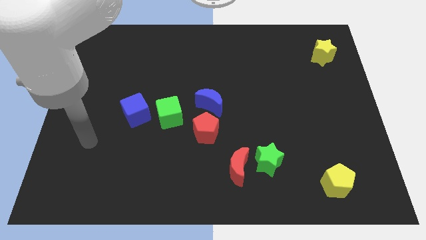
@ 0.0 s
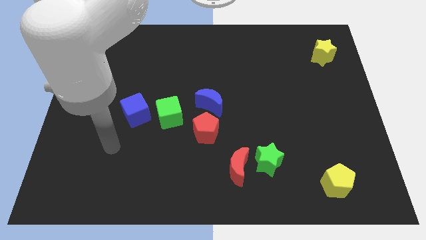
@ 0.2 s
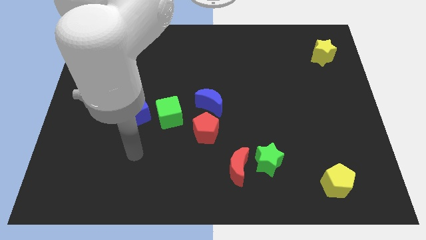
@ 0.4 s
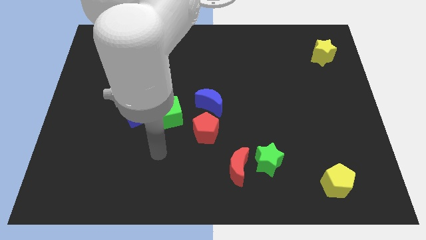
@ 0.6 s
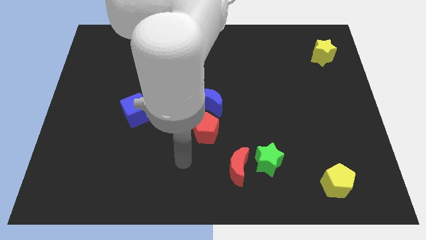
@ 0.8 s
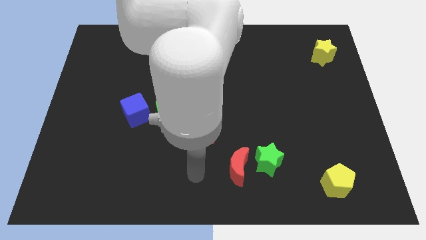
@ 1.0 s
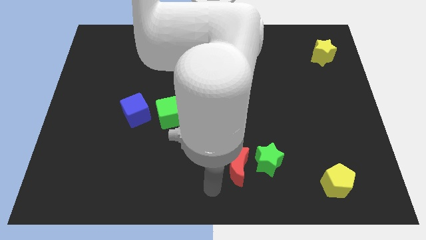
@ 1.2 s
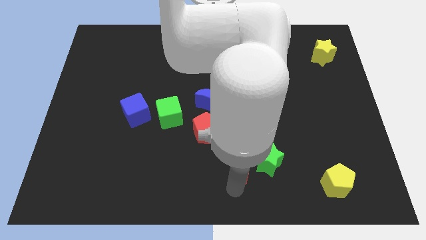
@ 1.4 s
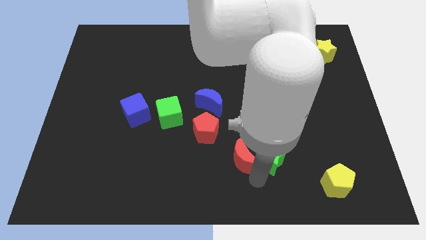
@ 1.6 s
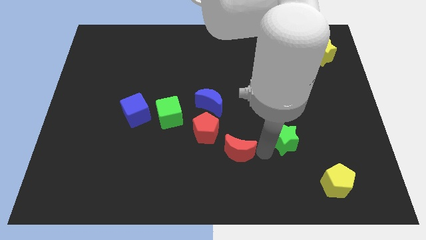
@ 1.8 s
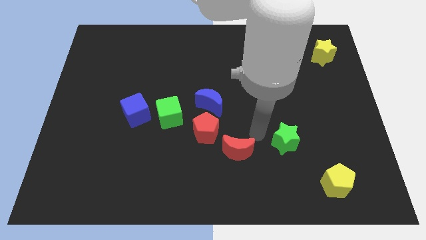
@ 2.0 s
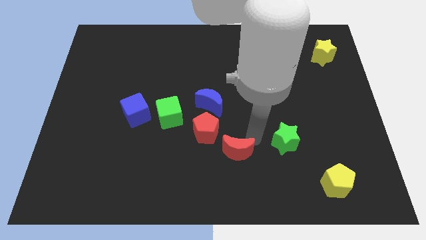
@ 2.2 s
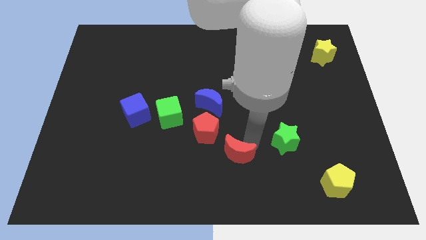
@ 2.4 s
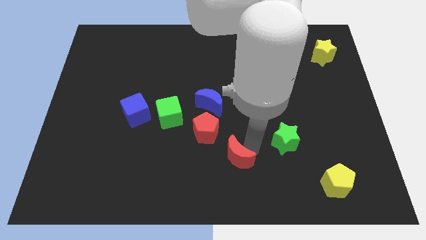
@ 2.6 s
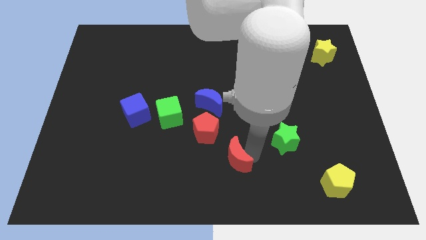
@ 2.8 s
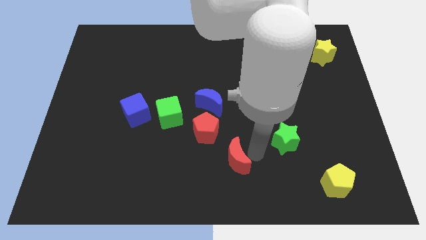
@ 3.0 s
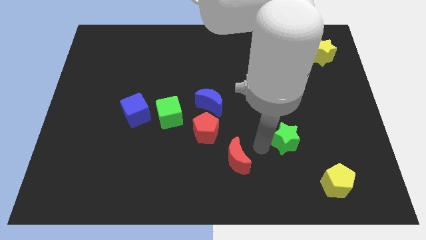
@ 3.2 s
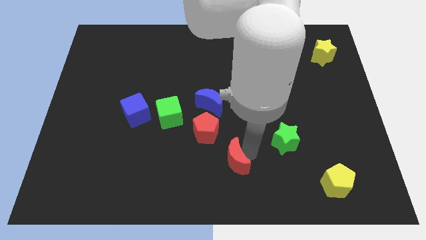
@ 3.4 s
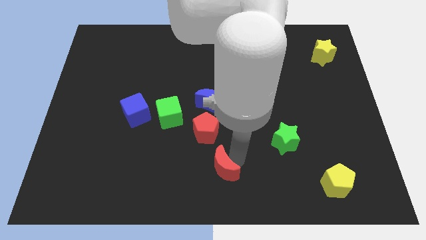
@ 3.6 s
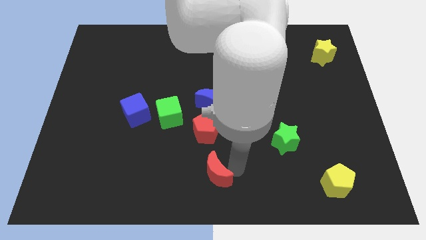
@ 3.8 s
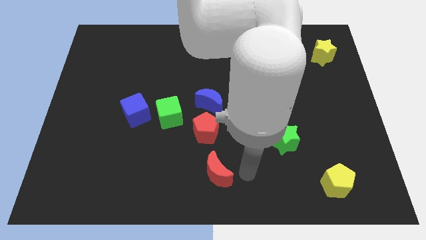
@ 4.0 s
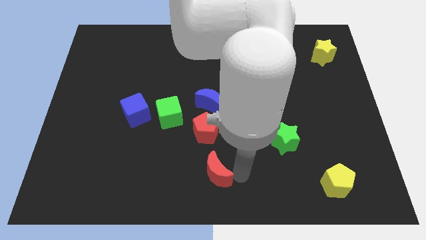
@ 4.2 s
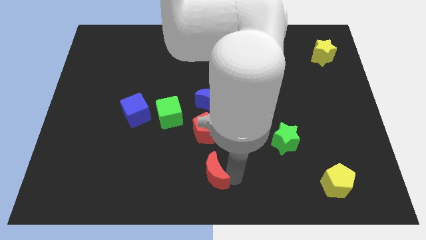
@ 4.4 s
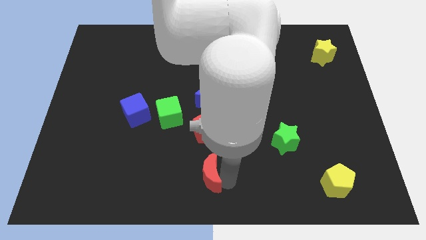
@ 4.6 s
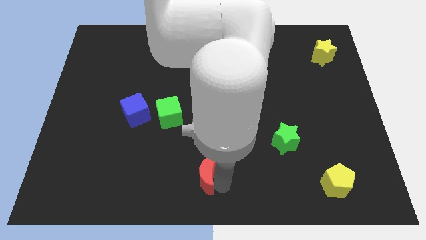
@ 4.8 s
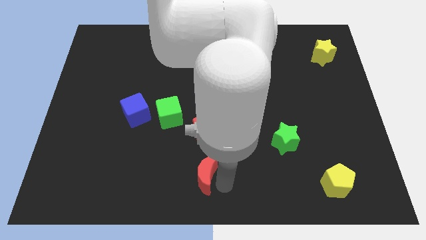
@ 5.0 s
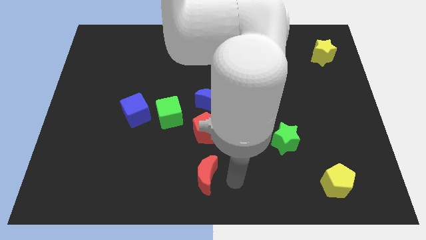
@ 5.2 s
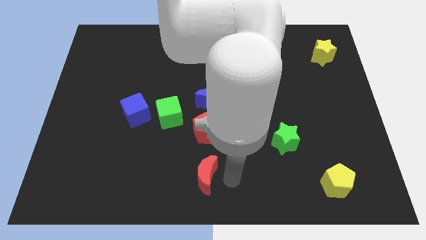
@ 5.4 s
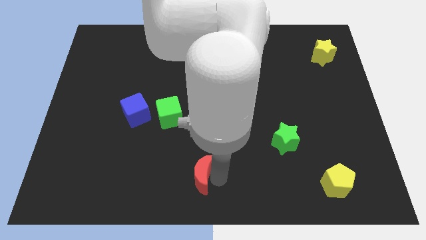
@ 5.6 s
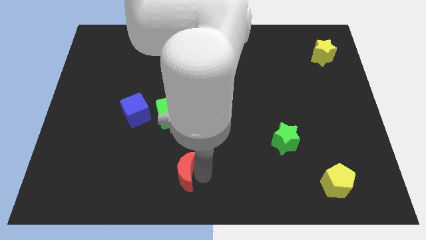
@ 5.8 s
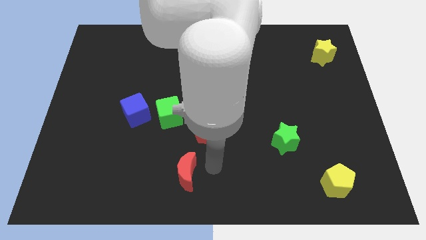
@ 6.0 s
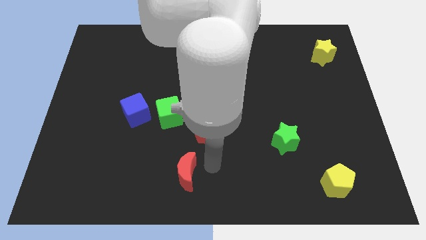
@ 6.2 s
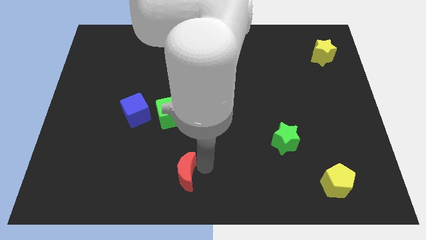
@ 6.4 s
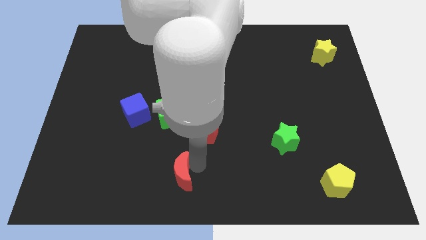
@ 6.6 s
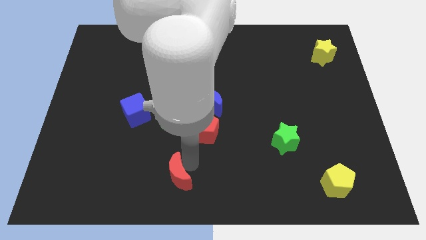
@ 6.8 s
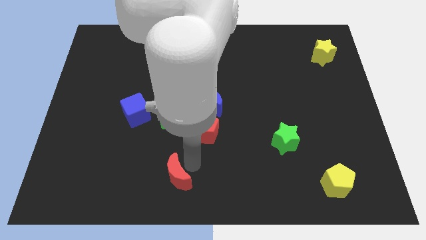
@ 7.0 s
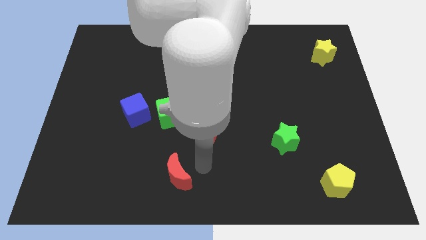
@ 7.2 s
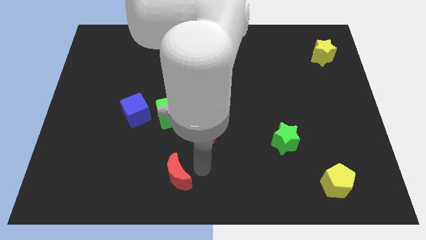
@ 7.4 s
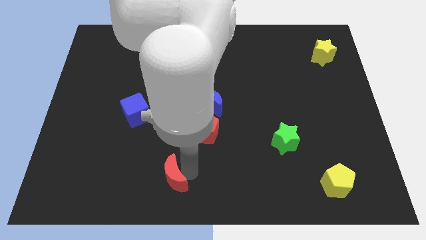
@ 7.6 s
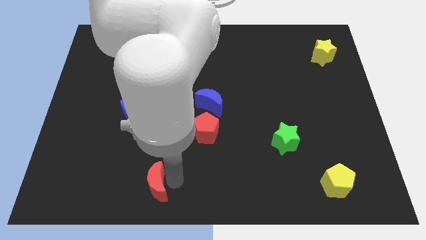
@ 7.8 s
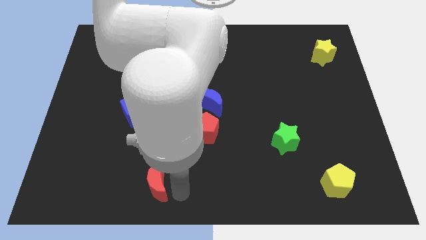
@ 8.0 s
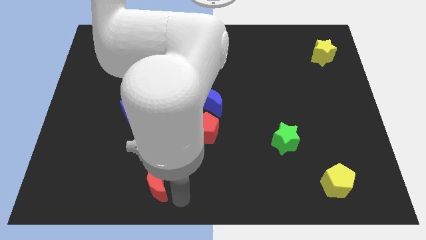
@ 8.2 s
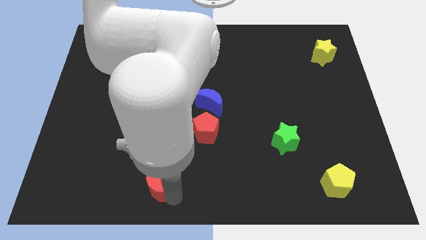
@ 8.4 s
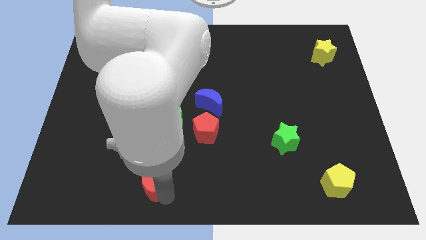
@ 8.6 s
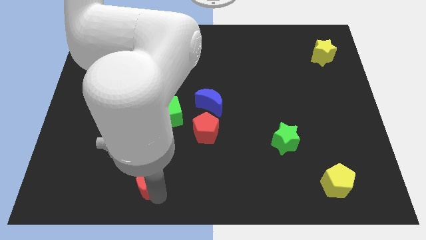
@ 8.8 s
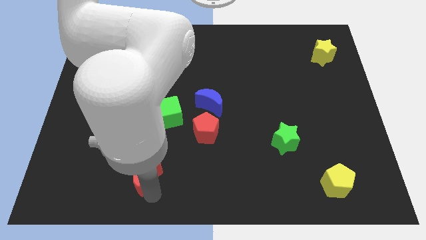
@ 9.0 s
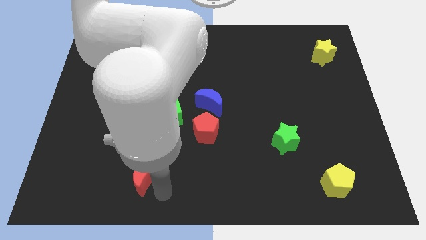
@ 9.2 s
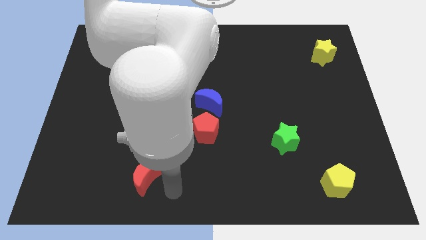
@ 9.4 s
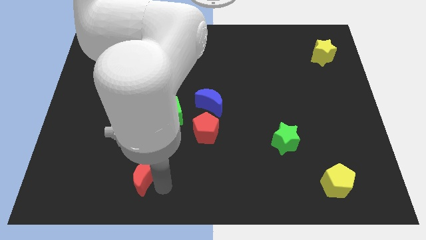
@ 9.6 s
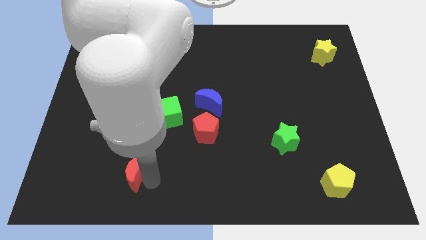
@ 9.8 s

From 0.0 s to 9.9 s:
slide the red moon to the left

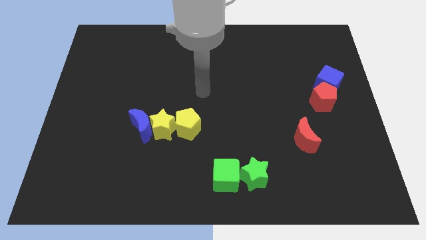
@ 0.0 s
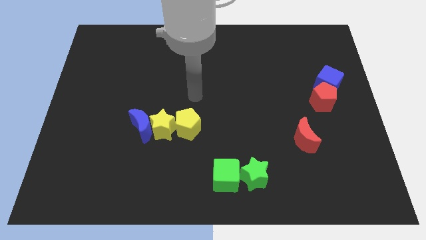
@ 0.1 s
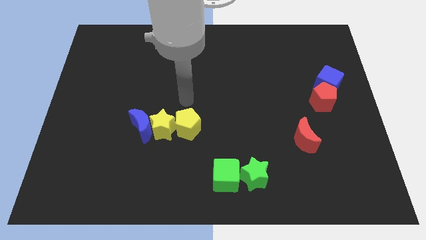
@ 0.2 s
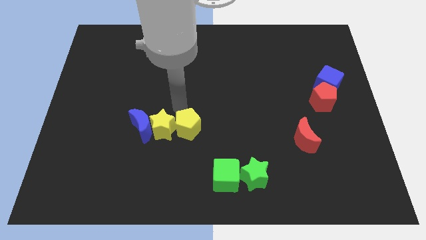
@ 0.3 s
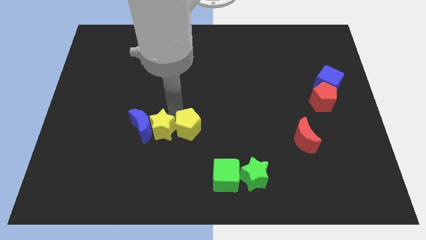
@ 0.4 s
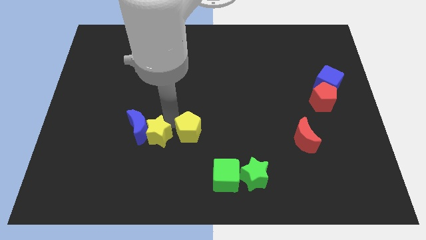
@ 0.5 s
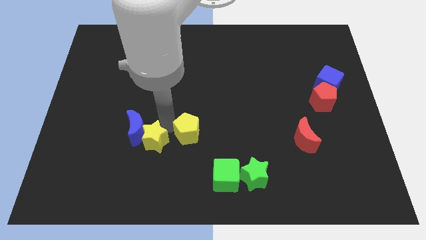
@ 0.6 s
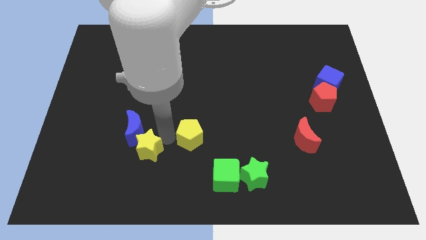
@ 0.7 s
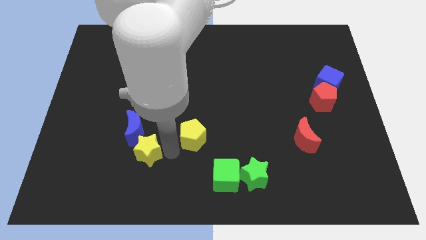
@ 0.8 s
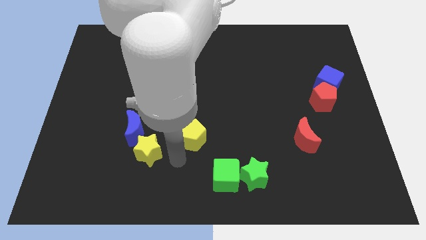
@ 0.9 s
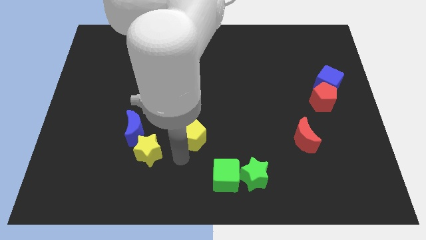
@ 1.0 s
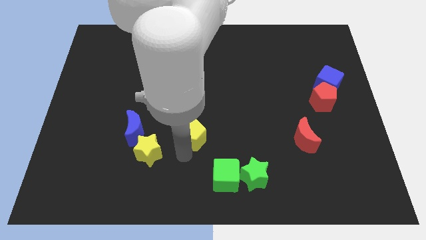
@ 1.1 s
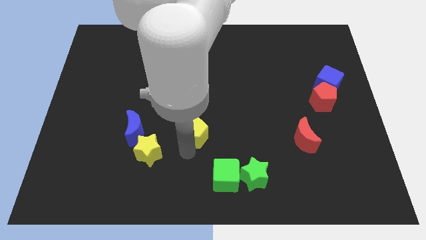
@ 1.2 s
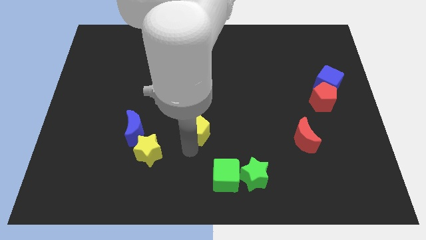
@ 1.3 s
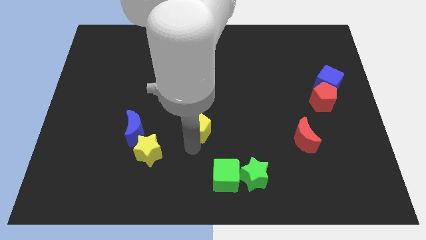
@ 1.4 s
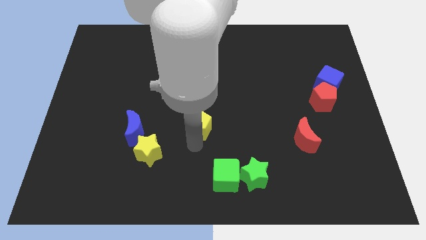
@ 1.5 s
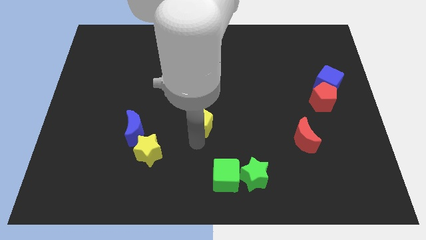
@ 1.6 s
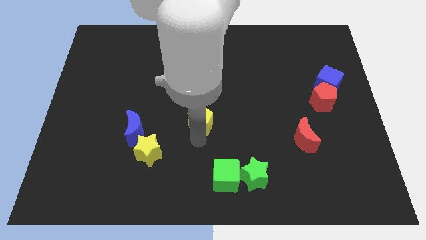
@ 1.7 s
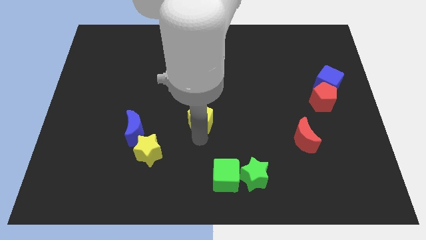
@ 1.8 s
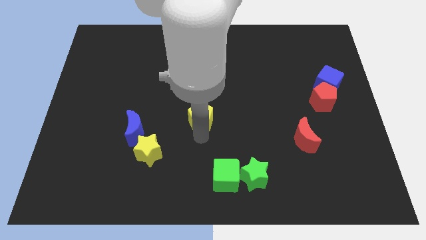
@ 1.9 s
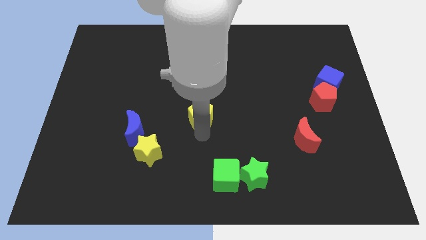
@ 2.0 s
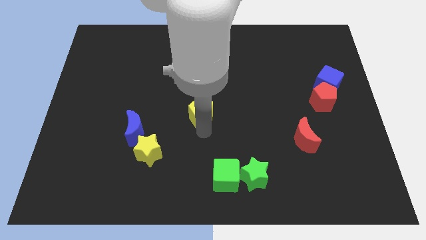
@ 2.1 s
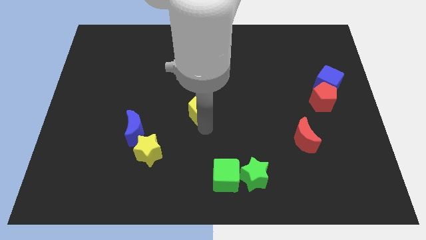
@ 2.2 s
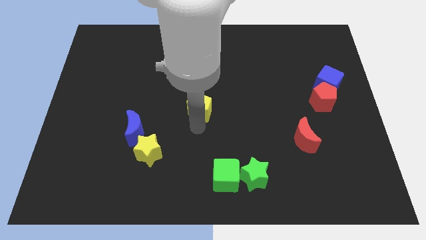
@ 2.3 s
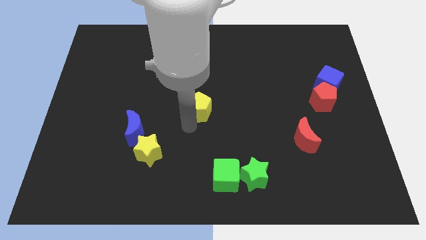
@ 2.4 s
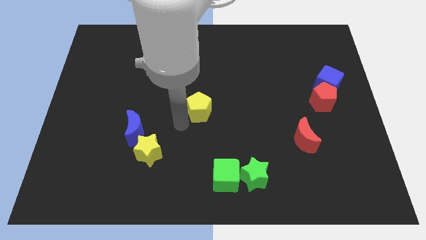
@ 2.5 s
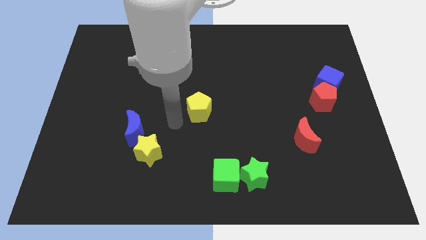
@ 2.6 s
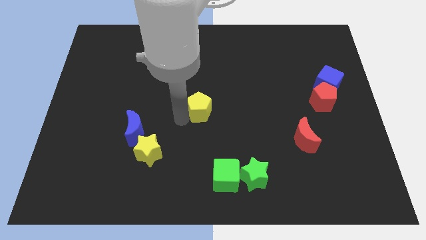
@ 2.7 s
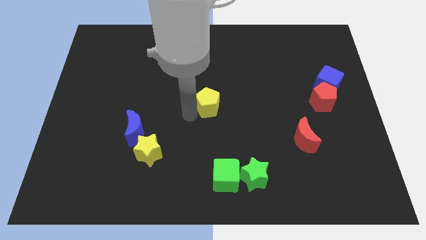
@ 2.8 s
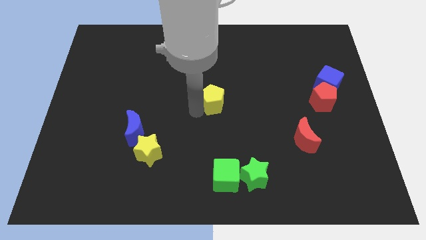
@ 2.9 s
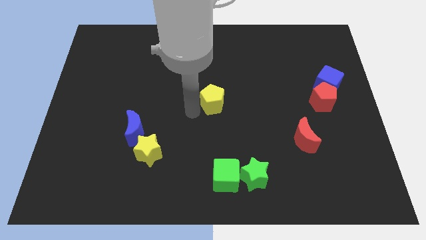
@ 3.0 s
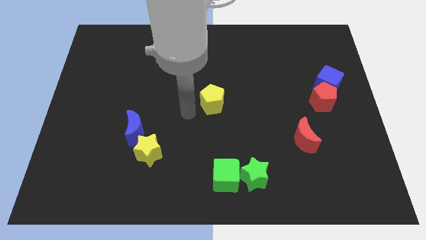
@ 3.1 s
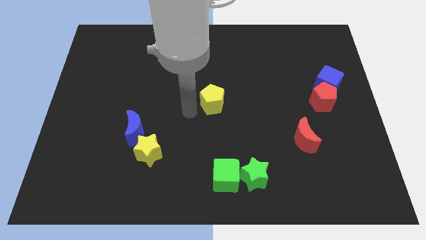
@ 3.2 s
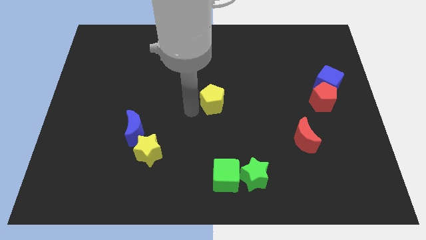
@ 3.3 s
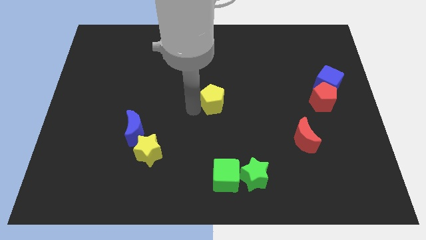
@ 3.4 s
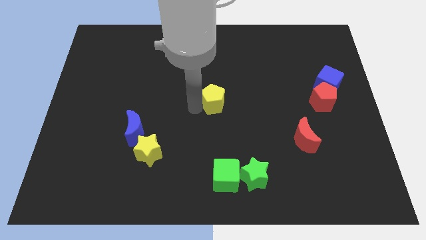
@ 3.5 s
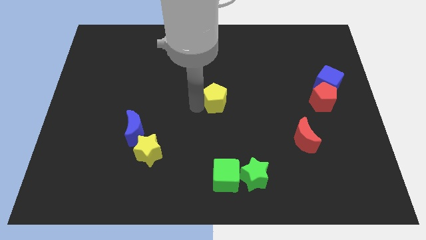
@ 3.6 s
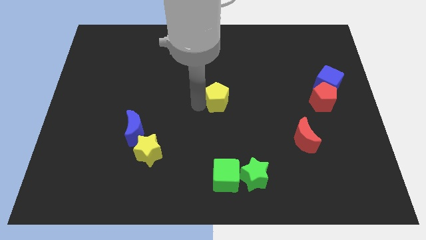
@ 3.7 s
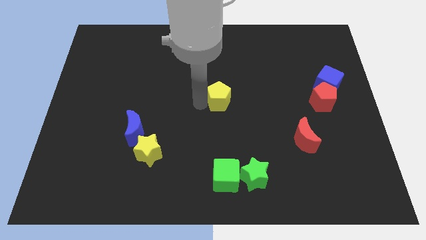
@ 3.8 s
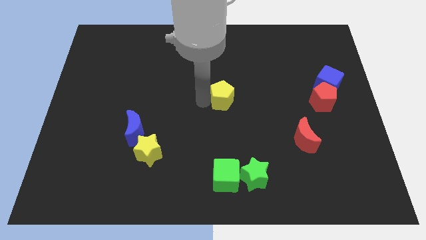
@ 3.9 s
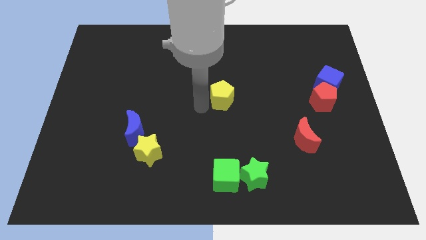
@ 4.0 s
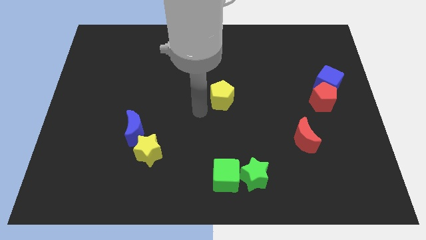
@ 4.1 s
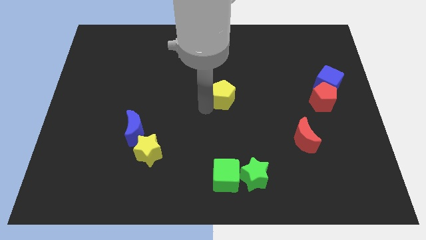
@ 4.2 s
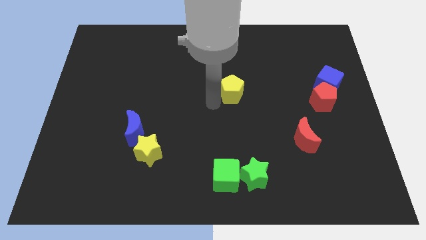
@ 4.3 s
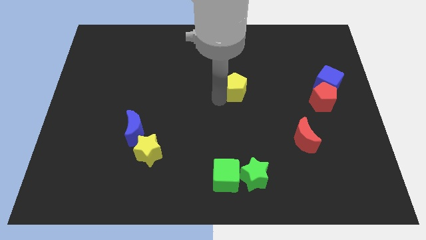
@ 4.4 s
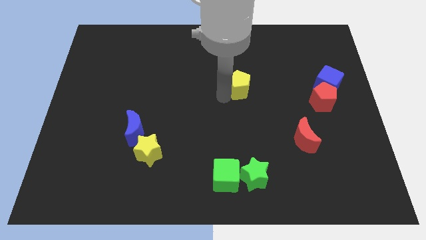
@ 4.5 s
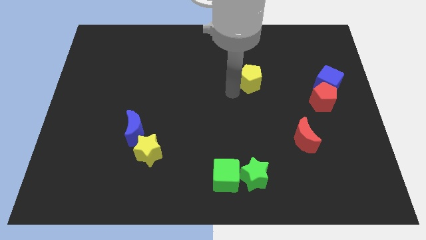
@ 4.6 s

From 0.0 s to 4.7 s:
push the yellow pentagon upwards and right
